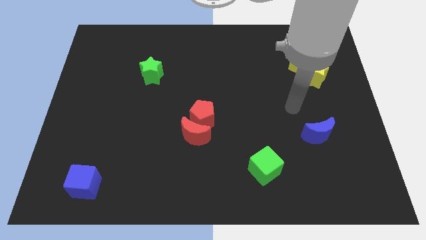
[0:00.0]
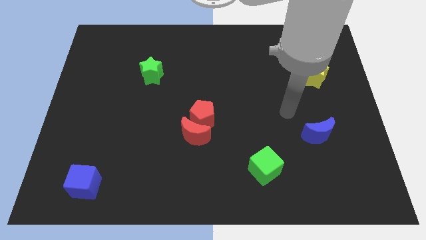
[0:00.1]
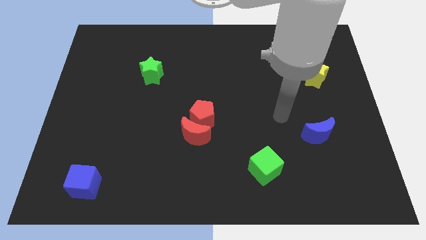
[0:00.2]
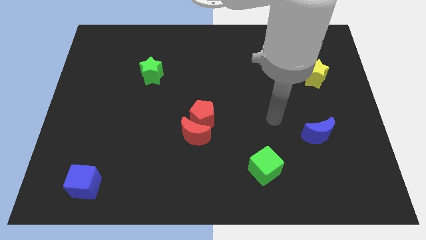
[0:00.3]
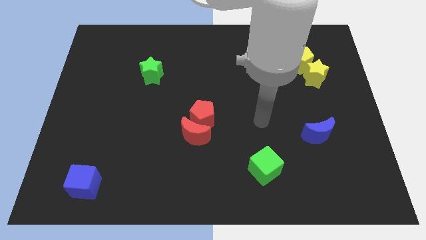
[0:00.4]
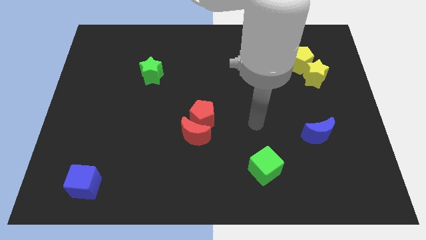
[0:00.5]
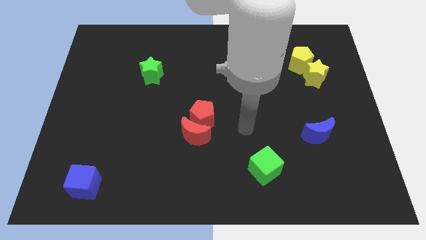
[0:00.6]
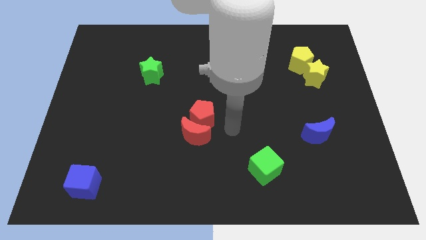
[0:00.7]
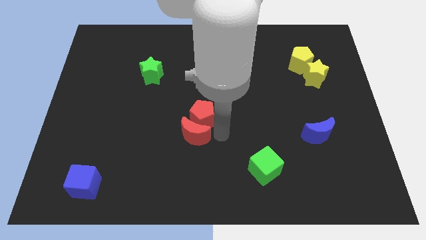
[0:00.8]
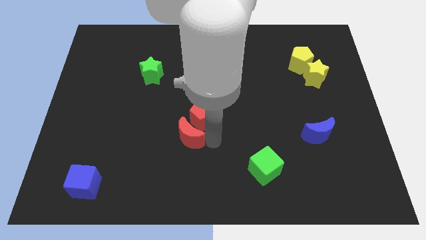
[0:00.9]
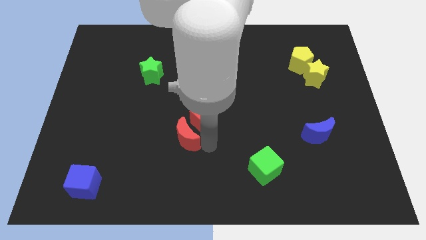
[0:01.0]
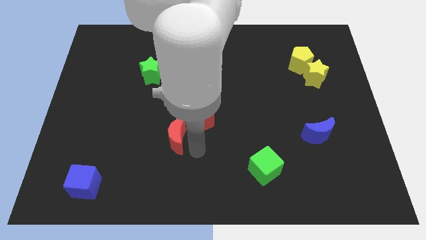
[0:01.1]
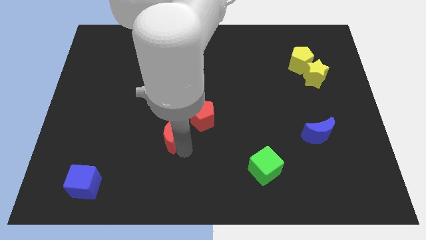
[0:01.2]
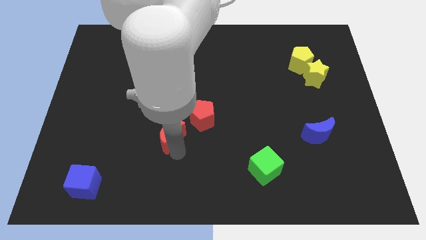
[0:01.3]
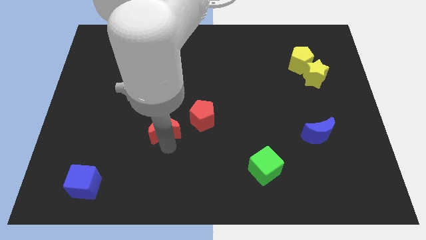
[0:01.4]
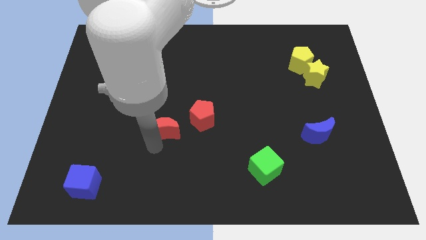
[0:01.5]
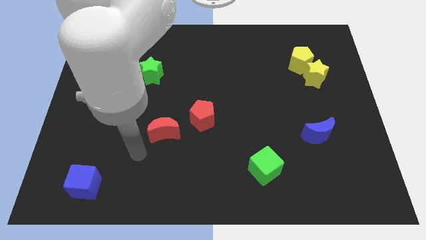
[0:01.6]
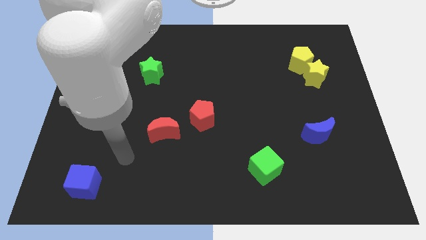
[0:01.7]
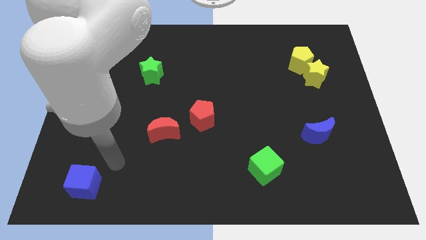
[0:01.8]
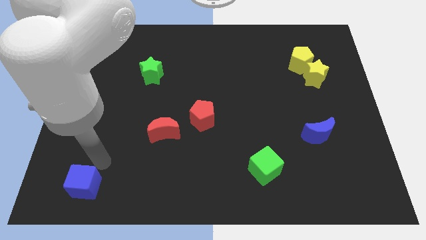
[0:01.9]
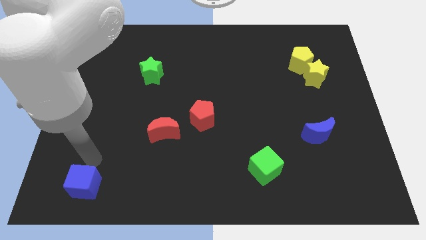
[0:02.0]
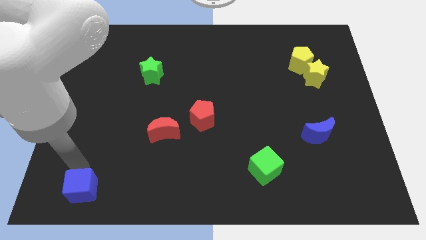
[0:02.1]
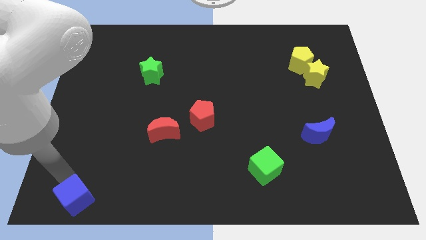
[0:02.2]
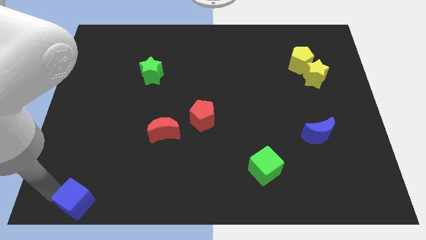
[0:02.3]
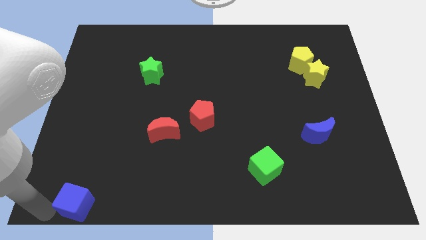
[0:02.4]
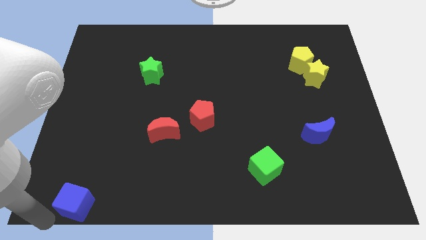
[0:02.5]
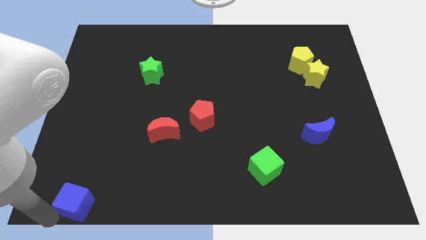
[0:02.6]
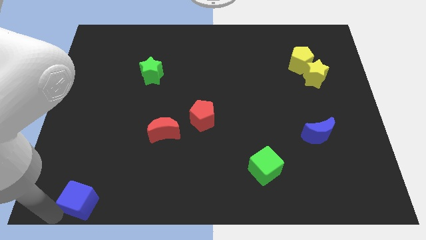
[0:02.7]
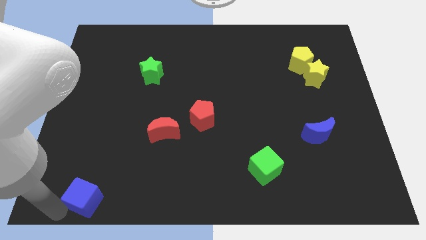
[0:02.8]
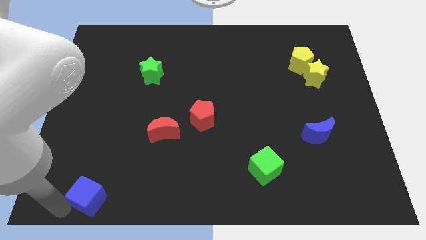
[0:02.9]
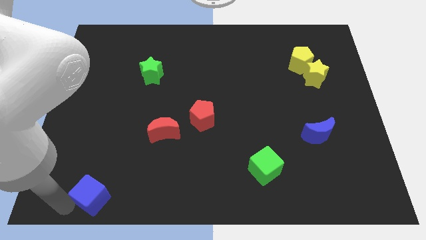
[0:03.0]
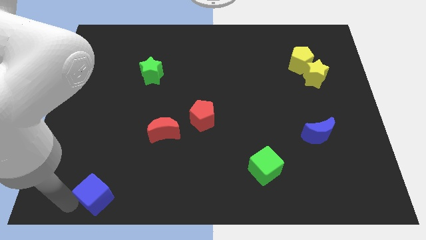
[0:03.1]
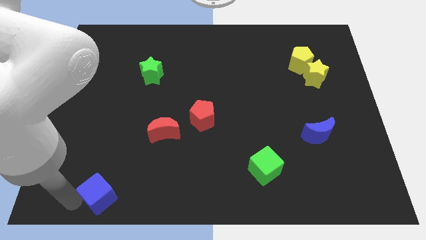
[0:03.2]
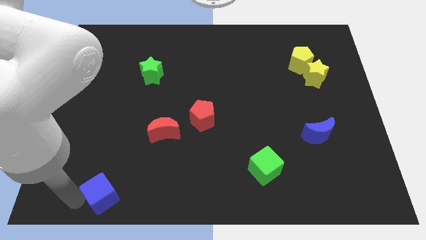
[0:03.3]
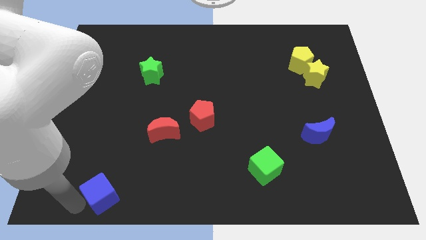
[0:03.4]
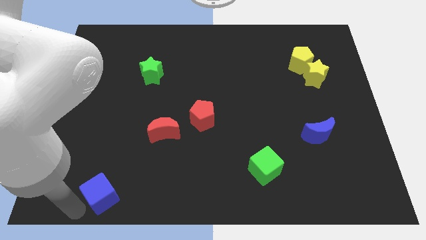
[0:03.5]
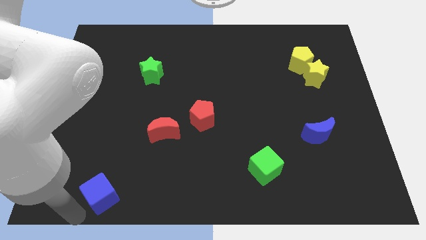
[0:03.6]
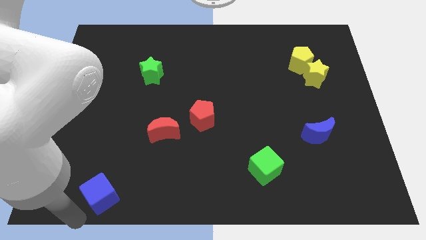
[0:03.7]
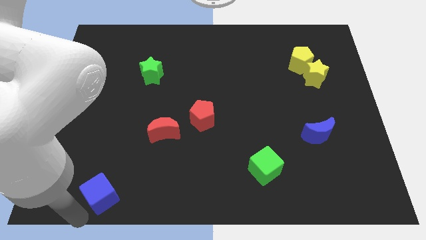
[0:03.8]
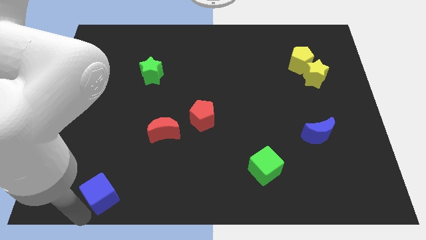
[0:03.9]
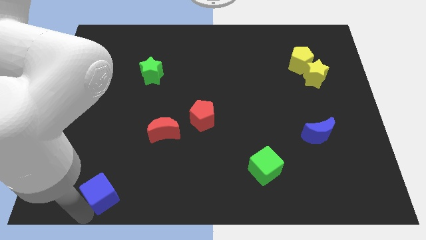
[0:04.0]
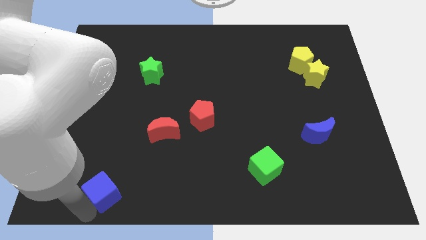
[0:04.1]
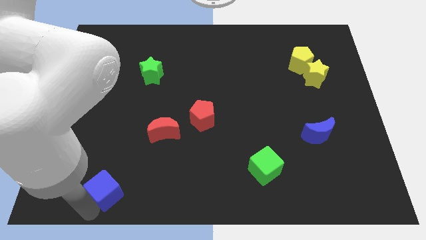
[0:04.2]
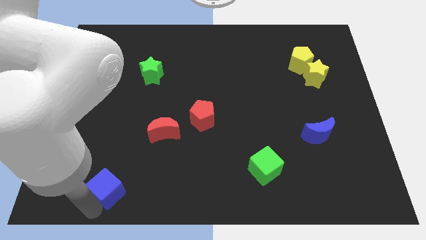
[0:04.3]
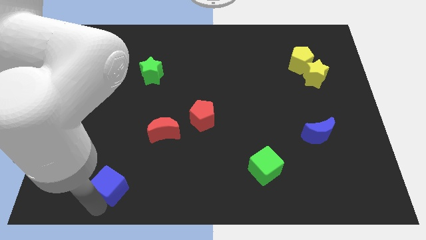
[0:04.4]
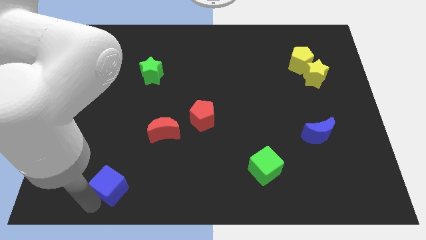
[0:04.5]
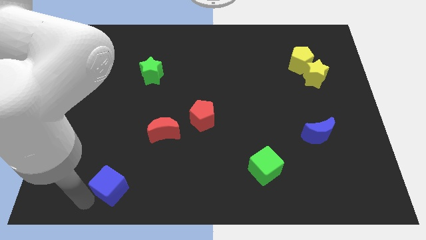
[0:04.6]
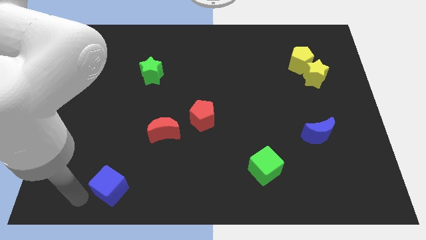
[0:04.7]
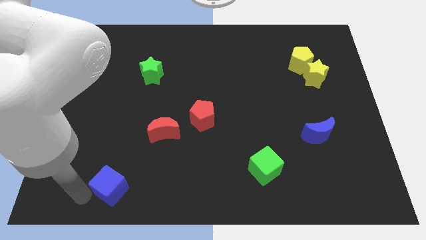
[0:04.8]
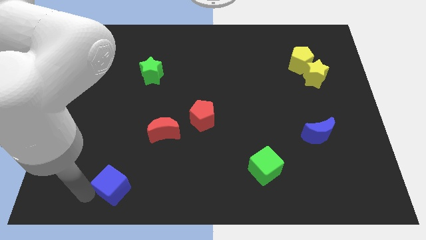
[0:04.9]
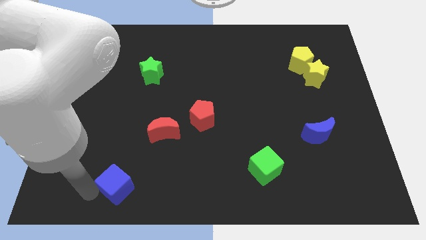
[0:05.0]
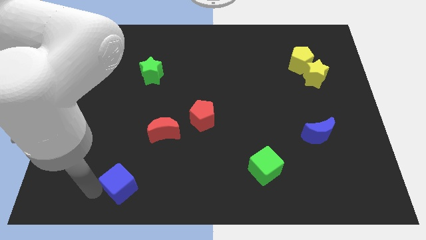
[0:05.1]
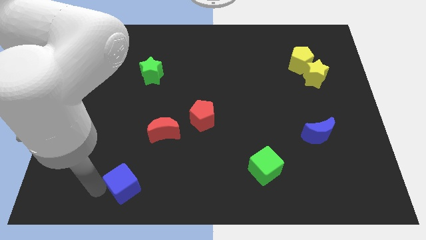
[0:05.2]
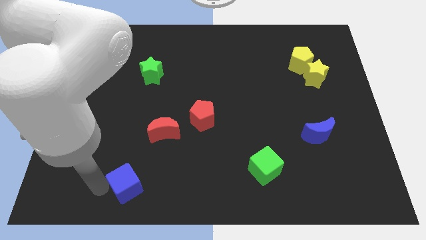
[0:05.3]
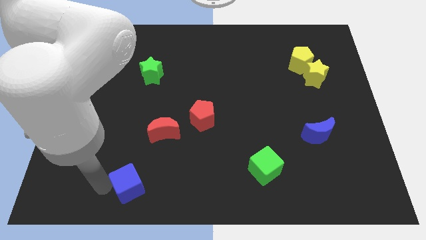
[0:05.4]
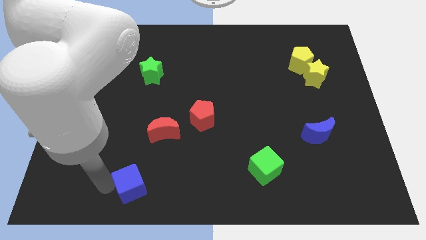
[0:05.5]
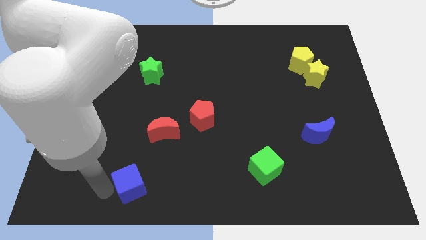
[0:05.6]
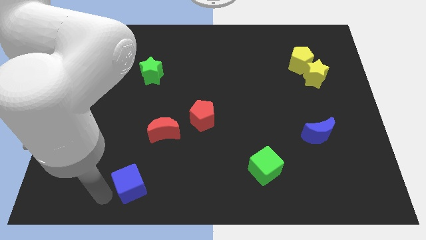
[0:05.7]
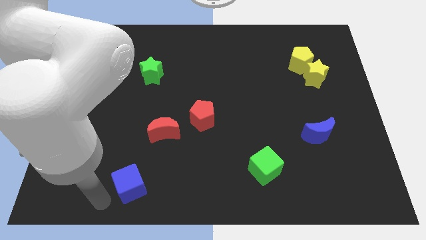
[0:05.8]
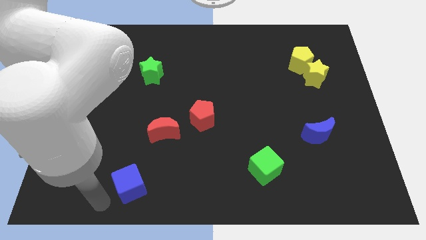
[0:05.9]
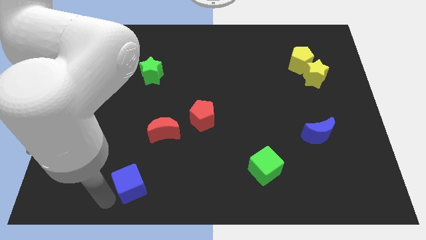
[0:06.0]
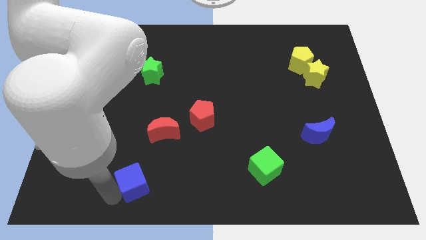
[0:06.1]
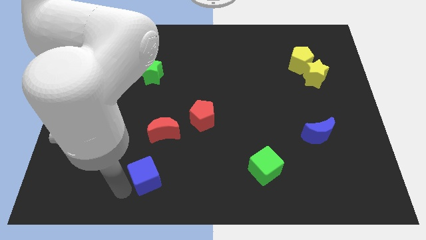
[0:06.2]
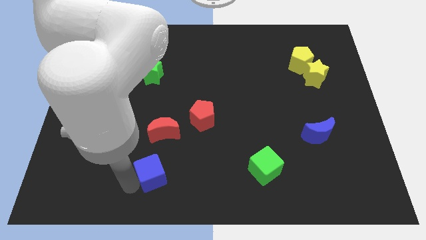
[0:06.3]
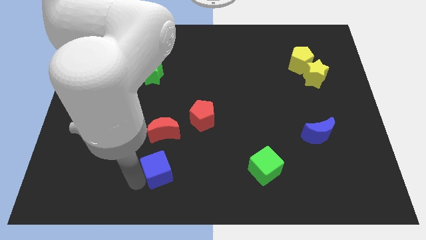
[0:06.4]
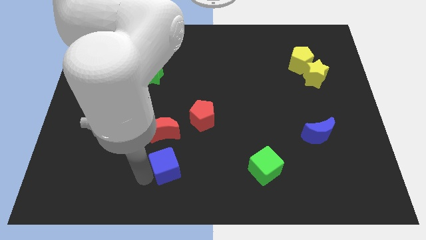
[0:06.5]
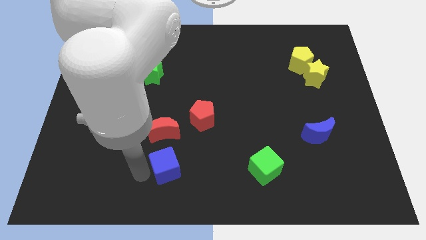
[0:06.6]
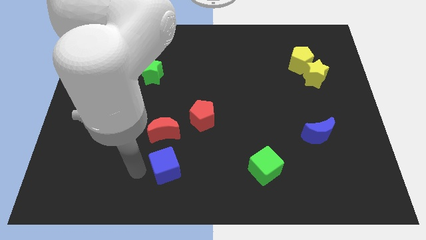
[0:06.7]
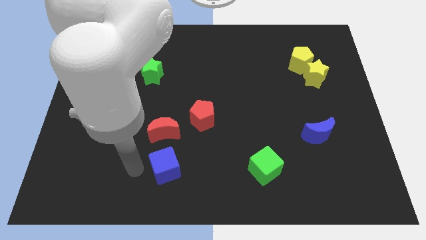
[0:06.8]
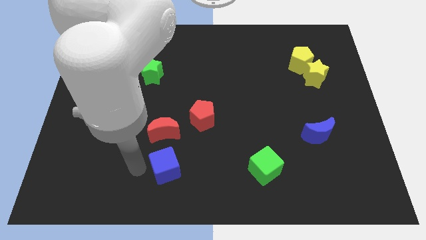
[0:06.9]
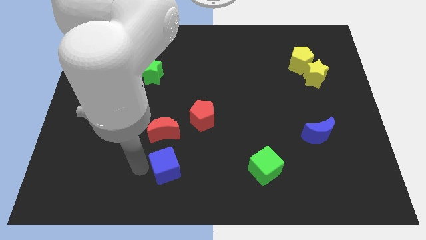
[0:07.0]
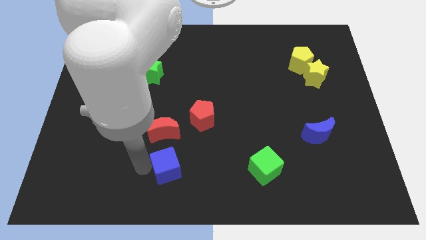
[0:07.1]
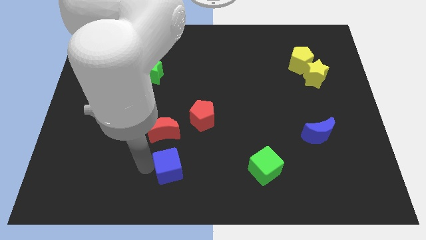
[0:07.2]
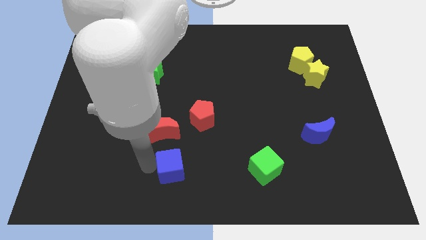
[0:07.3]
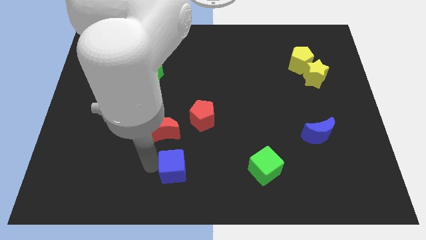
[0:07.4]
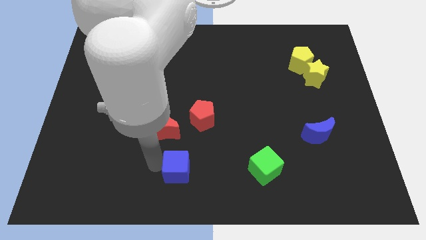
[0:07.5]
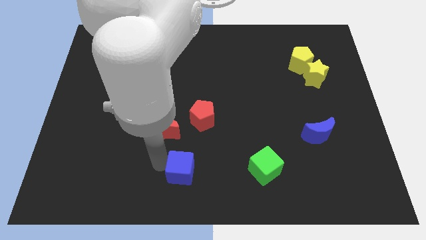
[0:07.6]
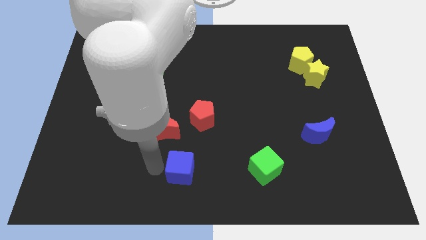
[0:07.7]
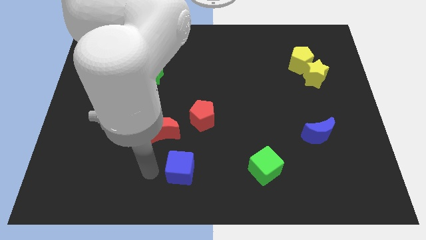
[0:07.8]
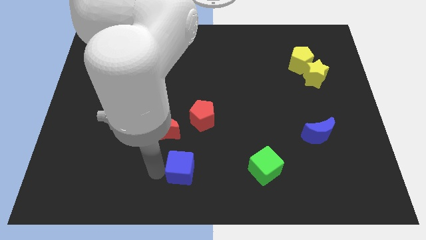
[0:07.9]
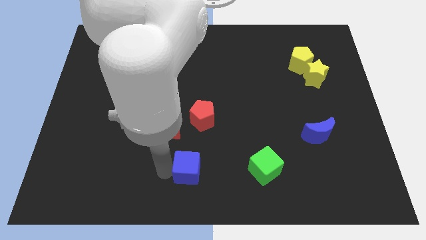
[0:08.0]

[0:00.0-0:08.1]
slide the blue cube to the left of the green cube
